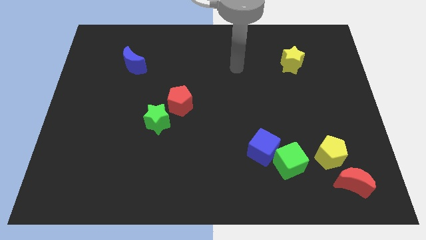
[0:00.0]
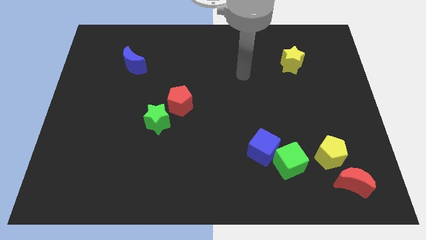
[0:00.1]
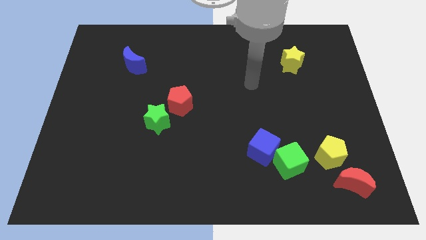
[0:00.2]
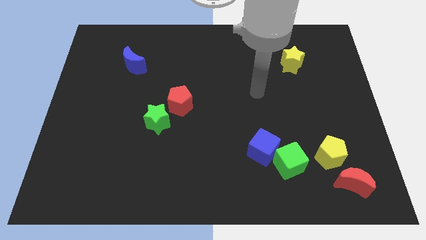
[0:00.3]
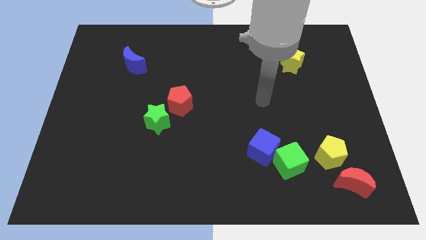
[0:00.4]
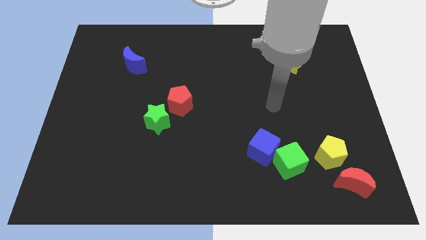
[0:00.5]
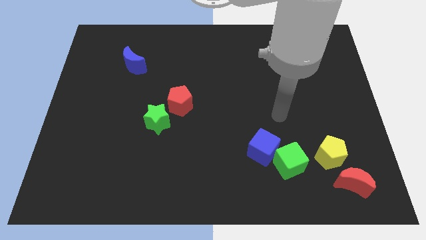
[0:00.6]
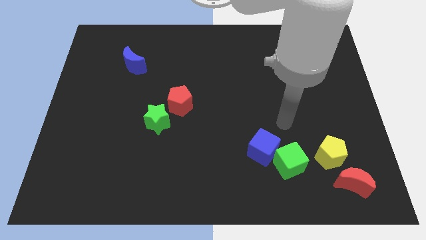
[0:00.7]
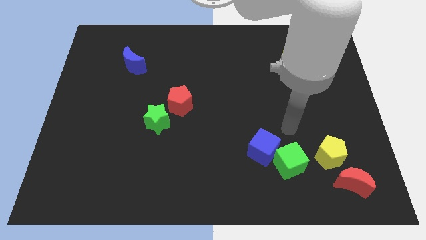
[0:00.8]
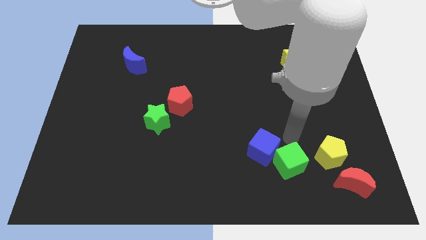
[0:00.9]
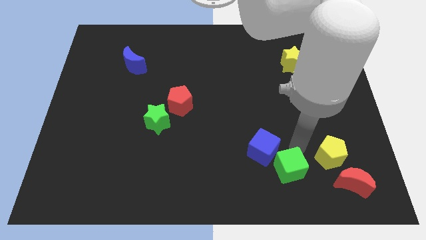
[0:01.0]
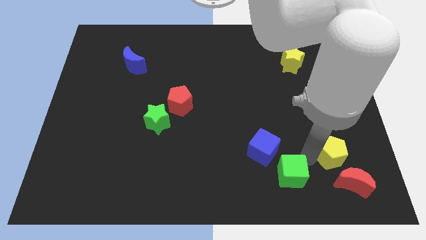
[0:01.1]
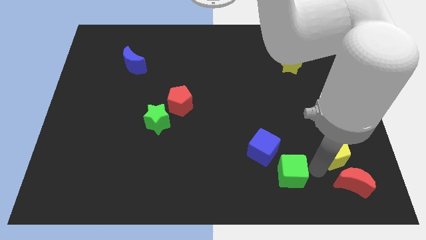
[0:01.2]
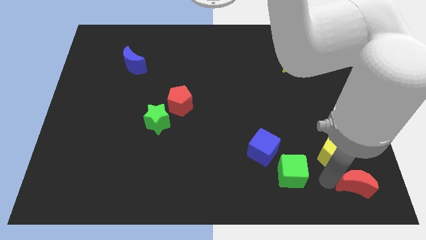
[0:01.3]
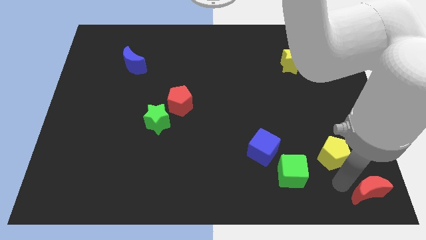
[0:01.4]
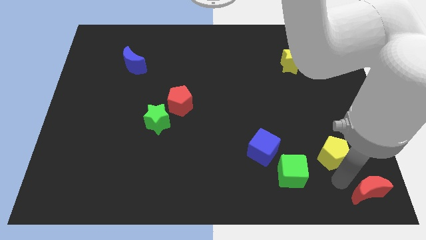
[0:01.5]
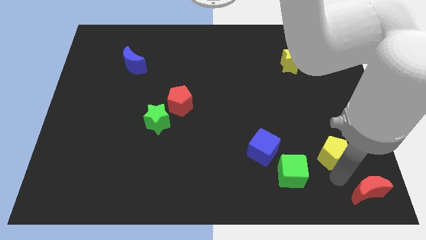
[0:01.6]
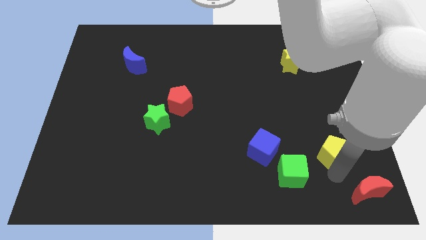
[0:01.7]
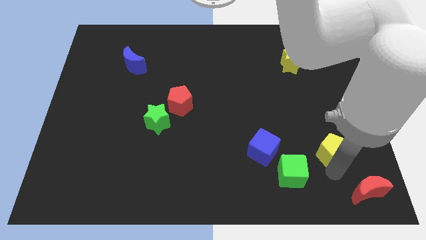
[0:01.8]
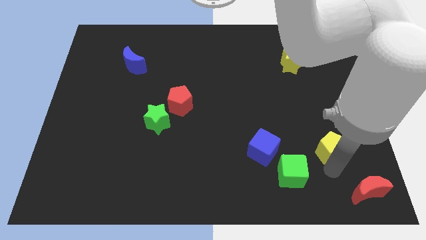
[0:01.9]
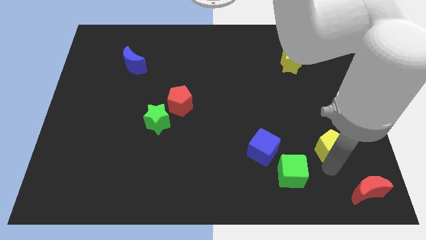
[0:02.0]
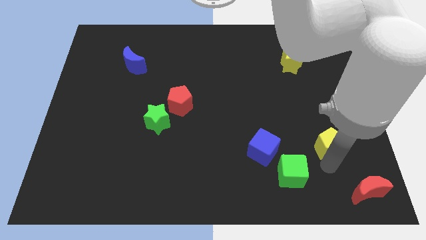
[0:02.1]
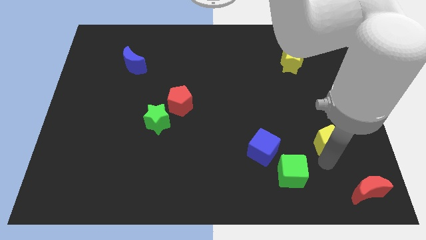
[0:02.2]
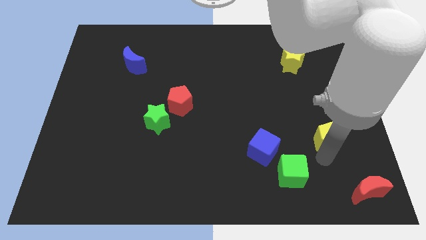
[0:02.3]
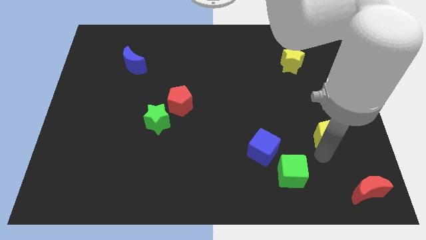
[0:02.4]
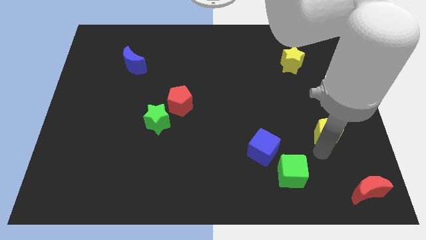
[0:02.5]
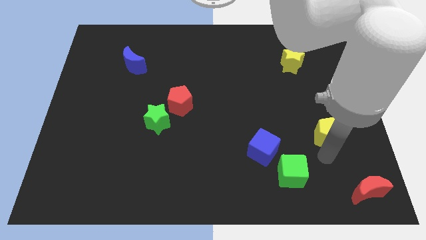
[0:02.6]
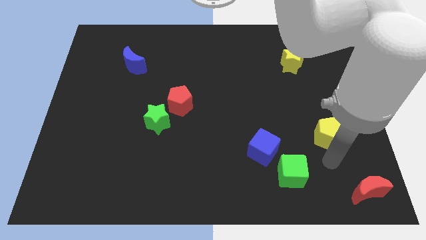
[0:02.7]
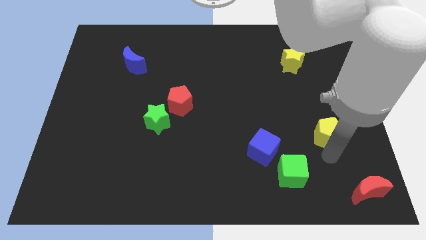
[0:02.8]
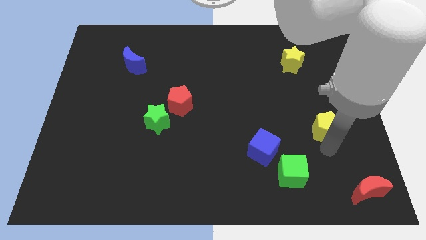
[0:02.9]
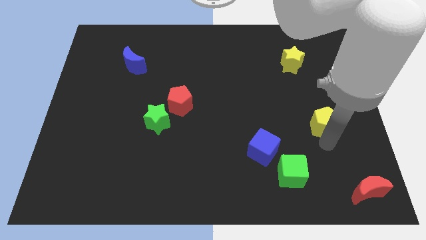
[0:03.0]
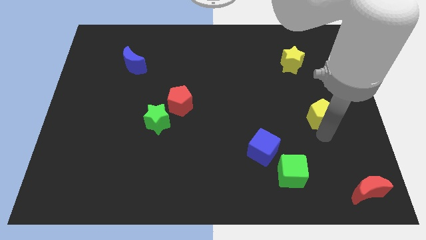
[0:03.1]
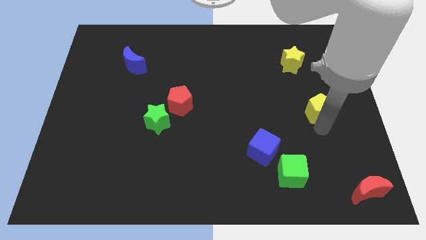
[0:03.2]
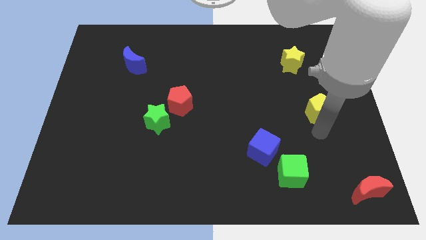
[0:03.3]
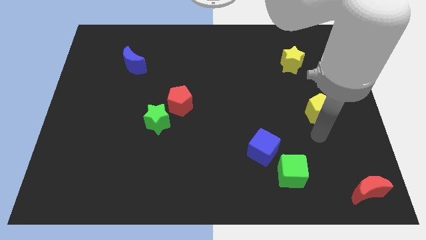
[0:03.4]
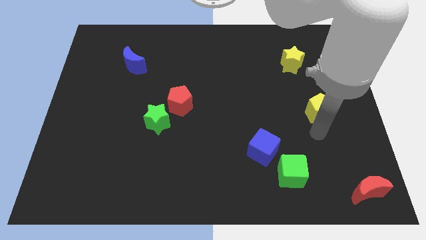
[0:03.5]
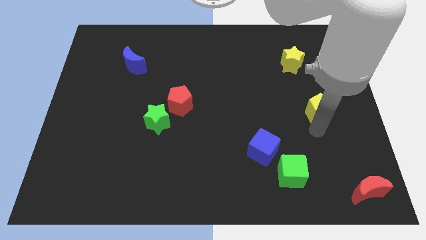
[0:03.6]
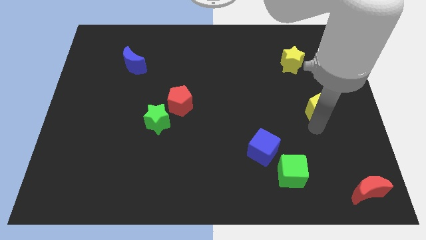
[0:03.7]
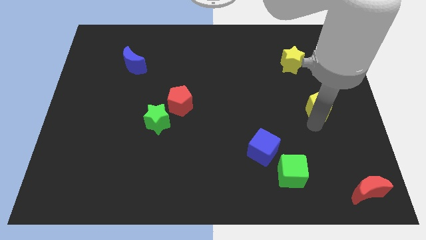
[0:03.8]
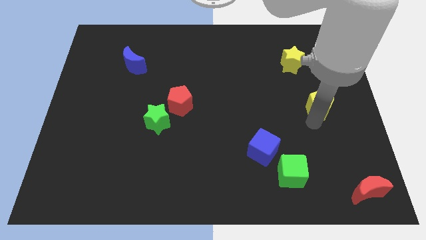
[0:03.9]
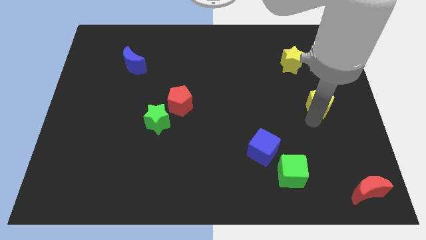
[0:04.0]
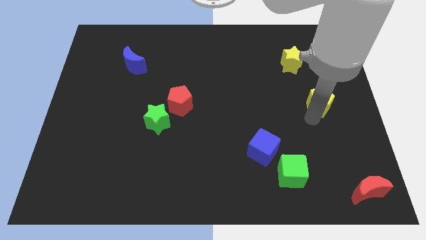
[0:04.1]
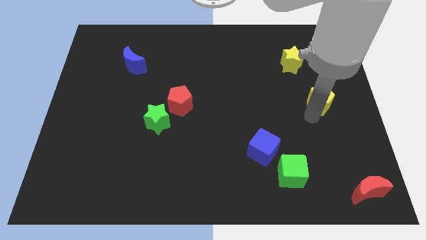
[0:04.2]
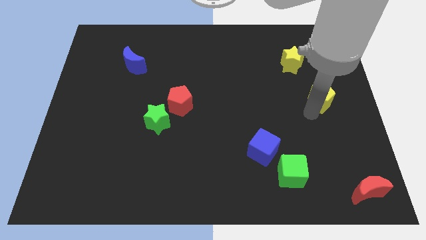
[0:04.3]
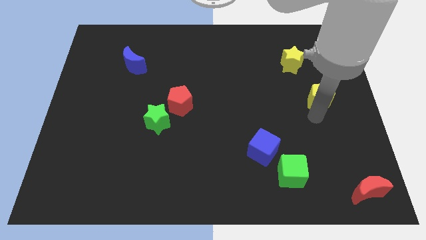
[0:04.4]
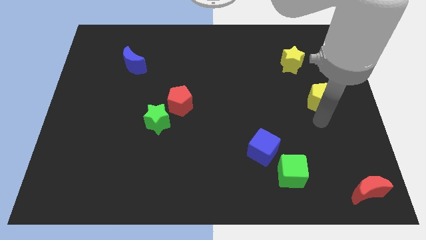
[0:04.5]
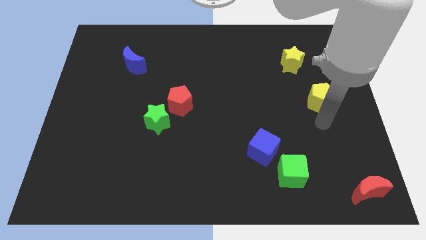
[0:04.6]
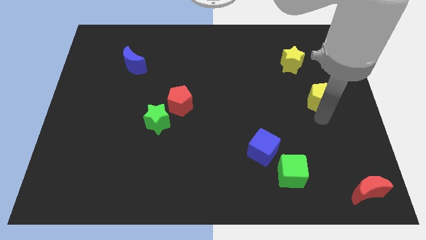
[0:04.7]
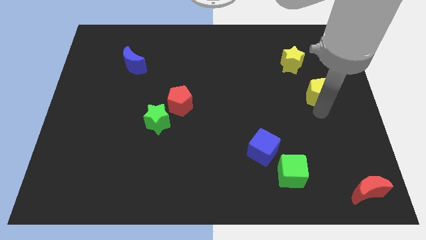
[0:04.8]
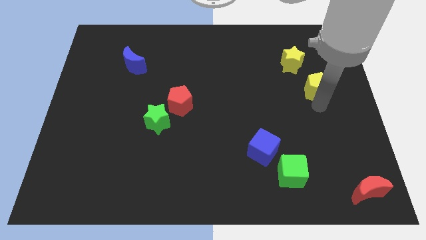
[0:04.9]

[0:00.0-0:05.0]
put the yellow pentagon diagonally down and to the right of the yellow star

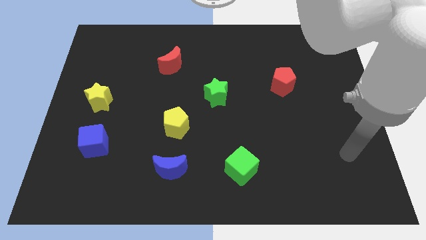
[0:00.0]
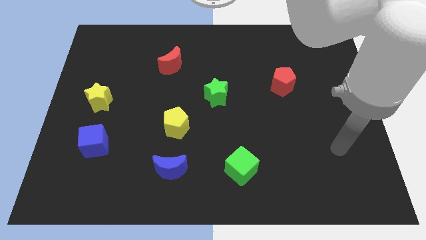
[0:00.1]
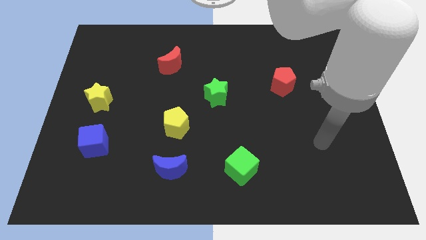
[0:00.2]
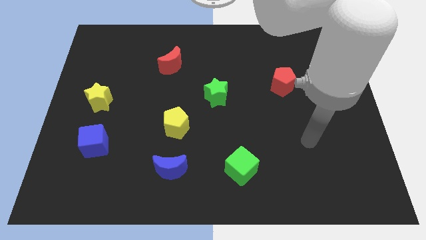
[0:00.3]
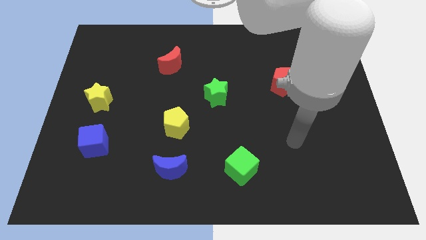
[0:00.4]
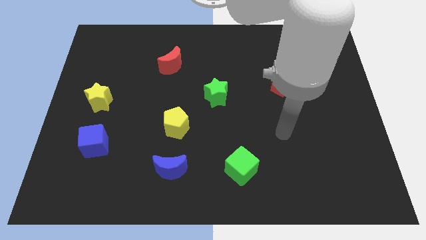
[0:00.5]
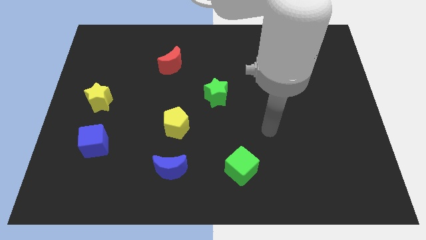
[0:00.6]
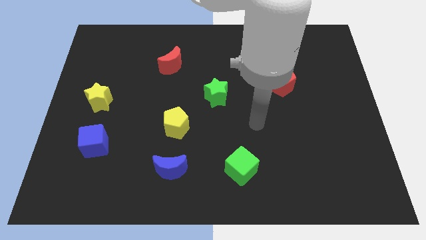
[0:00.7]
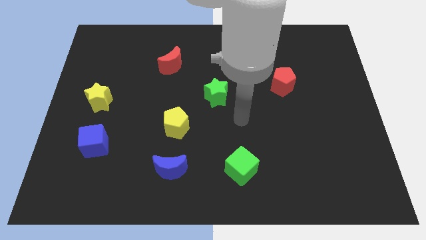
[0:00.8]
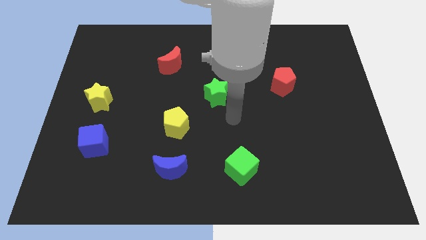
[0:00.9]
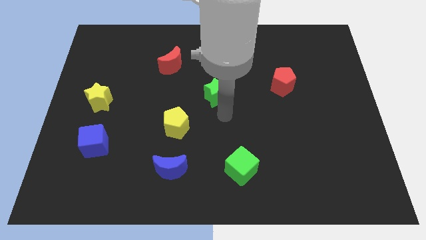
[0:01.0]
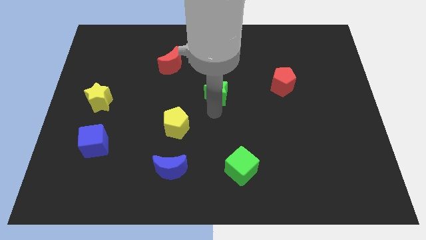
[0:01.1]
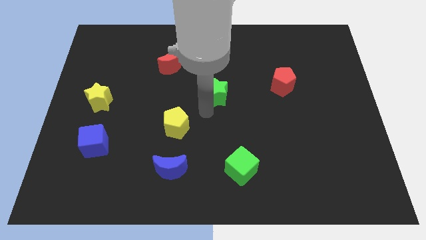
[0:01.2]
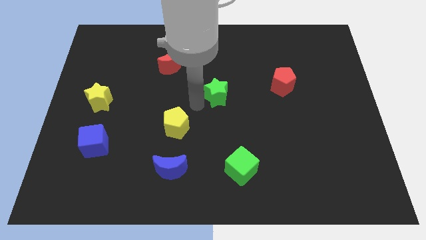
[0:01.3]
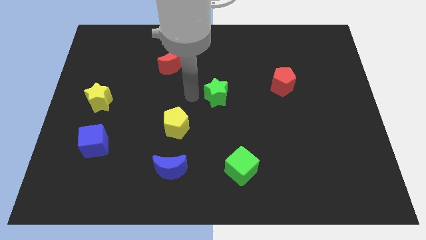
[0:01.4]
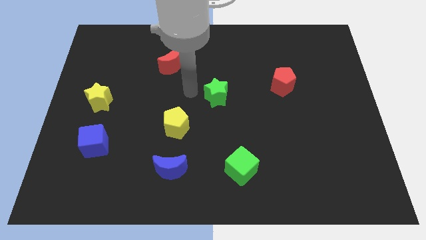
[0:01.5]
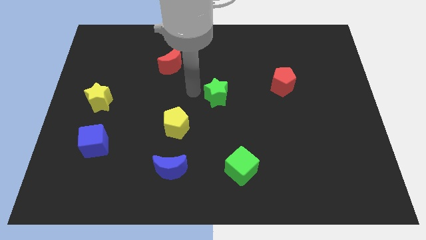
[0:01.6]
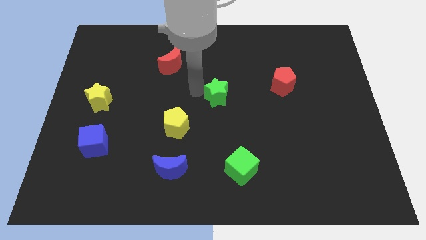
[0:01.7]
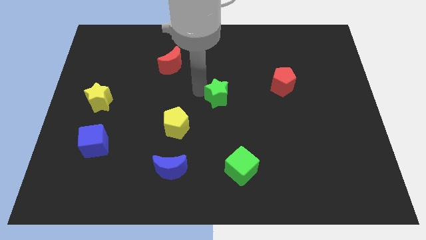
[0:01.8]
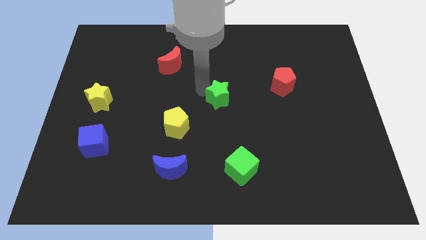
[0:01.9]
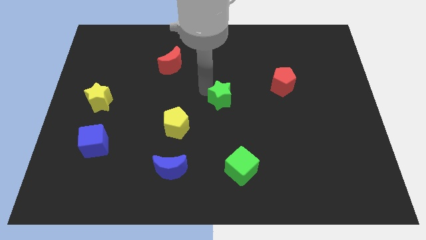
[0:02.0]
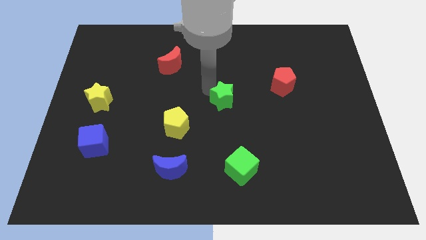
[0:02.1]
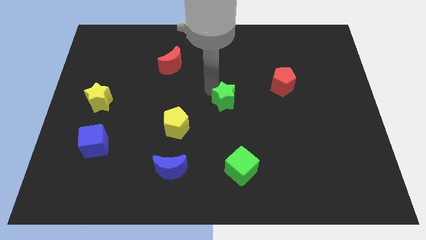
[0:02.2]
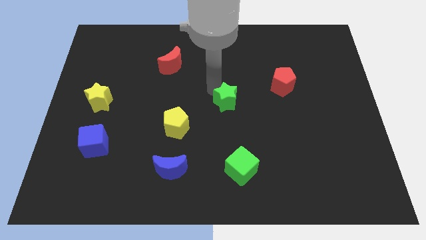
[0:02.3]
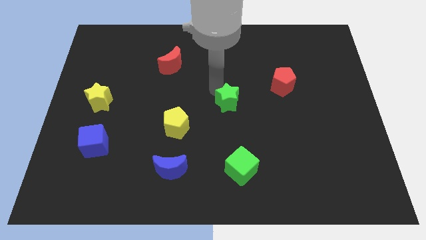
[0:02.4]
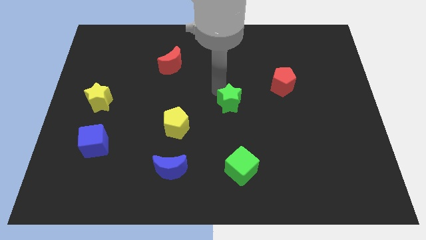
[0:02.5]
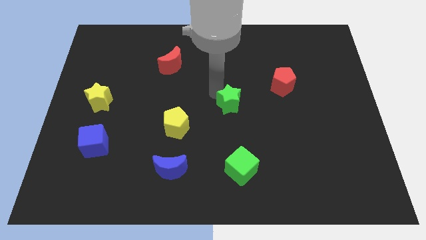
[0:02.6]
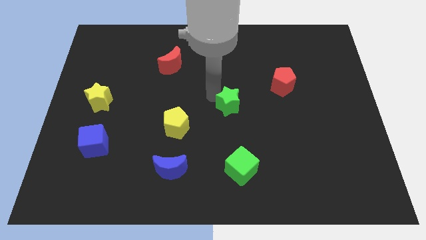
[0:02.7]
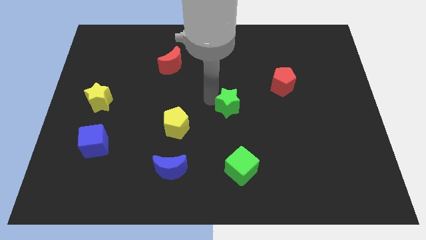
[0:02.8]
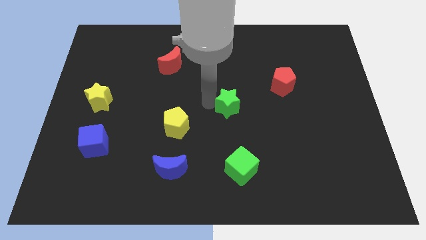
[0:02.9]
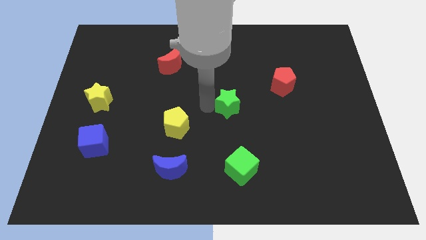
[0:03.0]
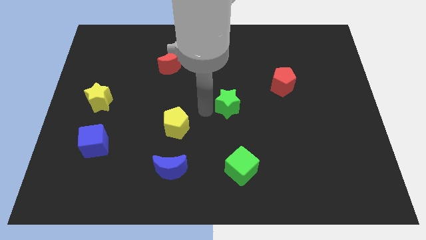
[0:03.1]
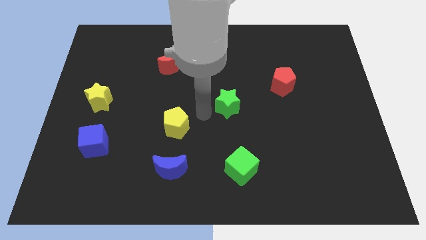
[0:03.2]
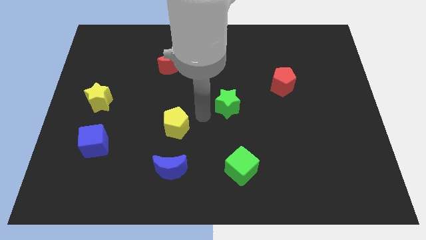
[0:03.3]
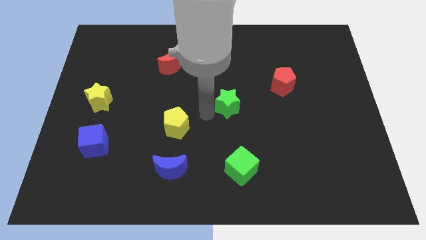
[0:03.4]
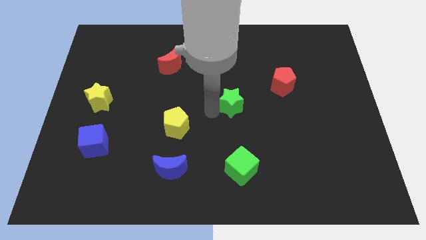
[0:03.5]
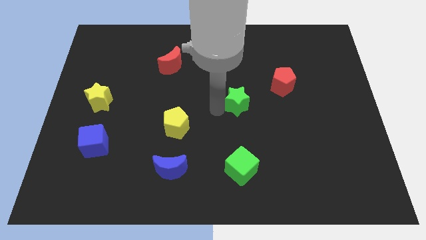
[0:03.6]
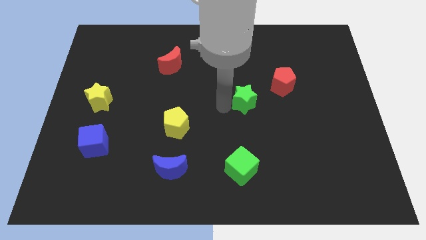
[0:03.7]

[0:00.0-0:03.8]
move the green star to the bottom left side of the red pentagon
